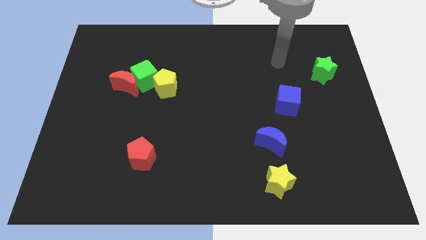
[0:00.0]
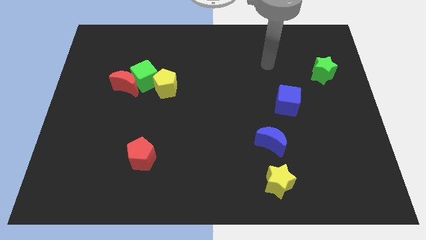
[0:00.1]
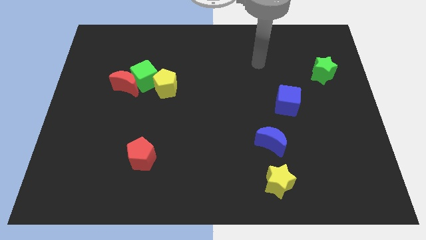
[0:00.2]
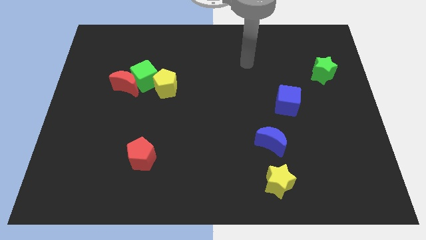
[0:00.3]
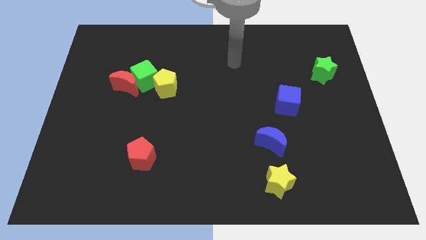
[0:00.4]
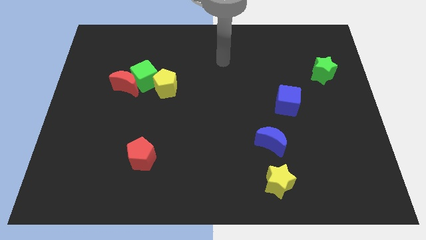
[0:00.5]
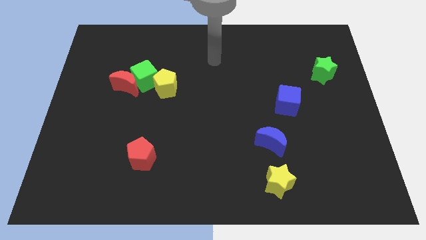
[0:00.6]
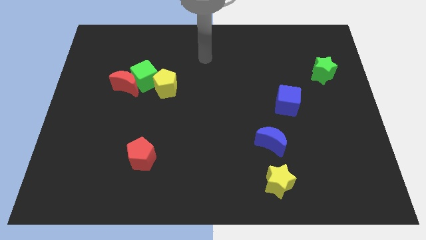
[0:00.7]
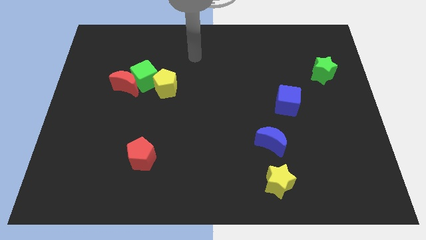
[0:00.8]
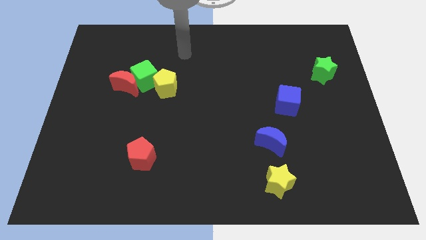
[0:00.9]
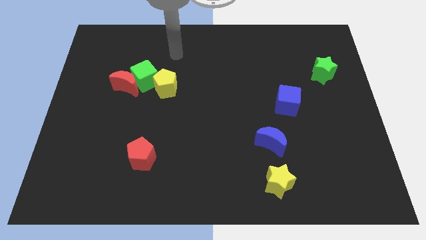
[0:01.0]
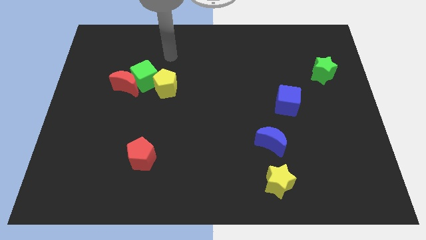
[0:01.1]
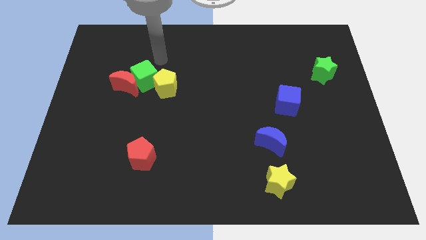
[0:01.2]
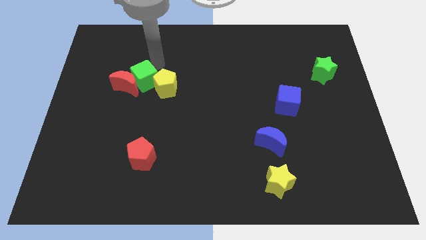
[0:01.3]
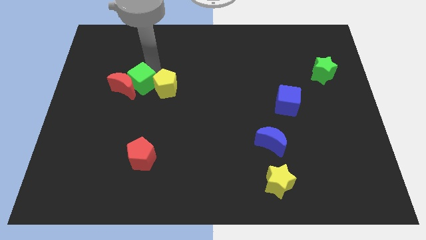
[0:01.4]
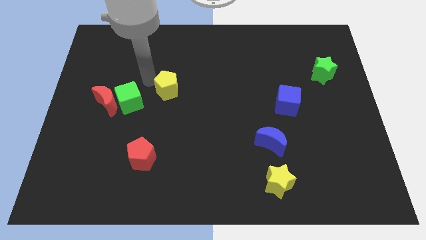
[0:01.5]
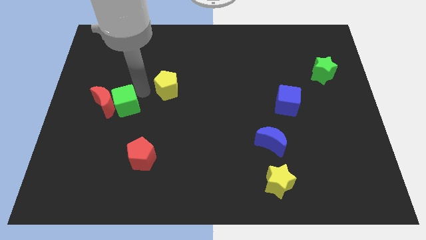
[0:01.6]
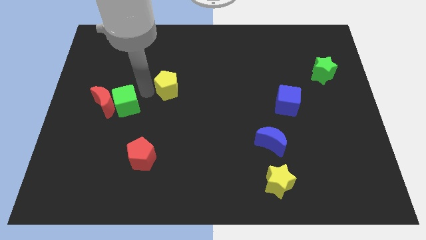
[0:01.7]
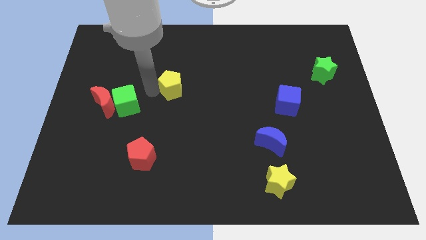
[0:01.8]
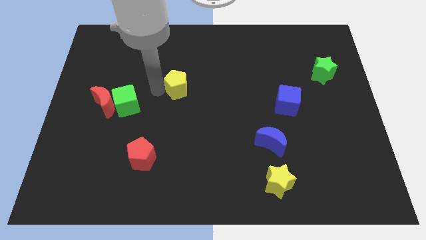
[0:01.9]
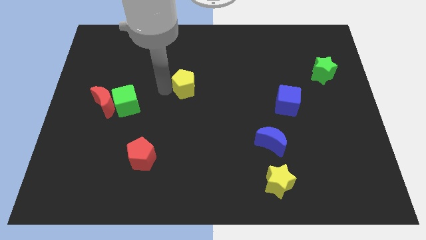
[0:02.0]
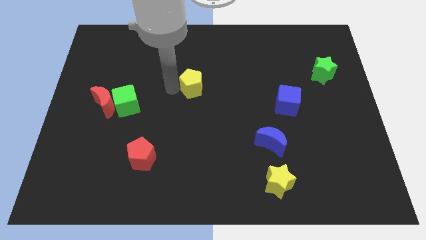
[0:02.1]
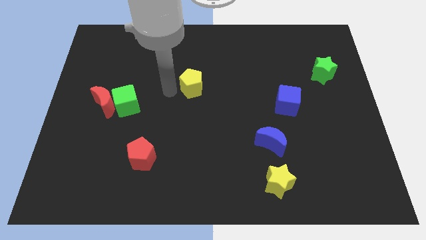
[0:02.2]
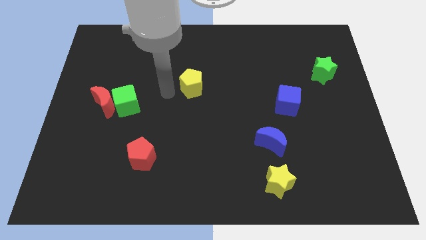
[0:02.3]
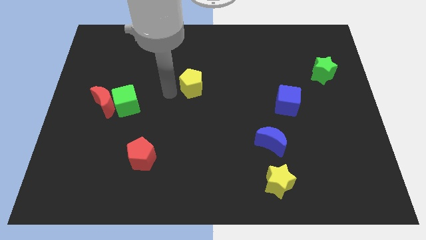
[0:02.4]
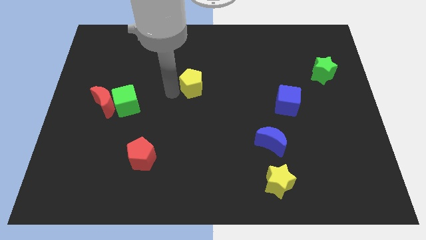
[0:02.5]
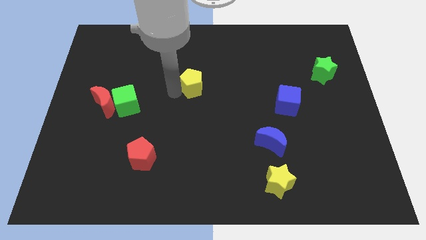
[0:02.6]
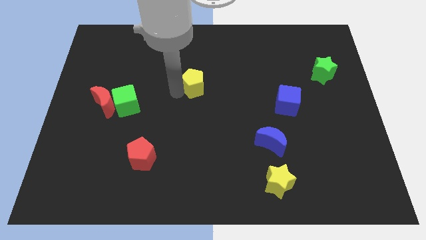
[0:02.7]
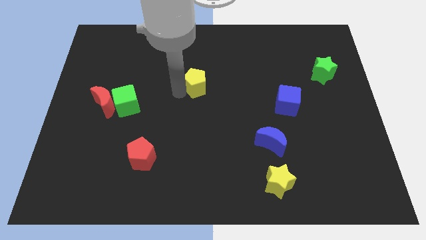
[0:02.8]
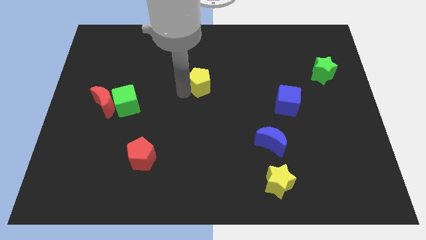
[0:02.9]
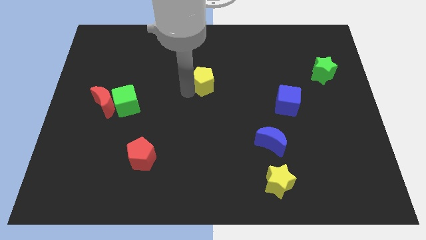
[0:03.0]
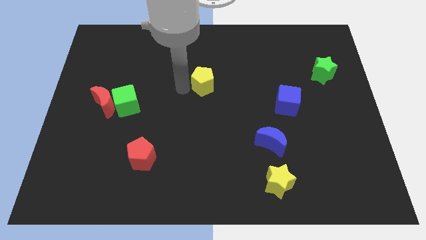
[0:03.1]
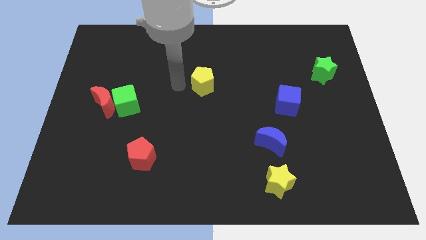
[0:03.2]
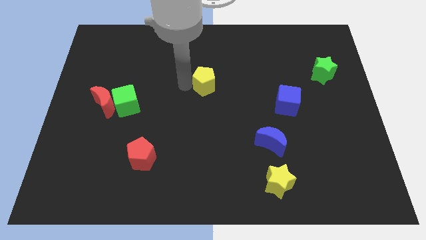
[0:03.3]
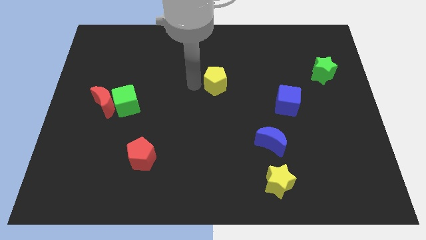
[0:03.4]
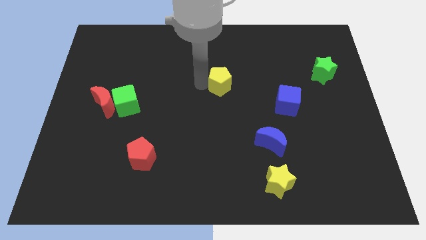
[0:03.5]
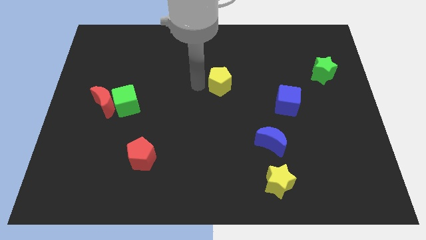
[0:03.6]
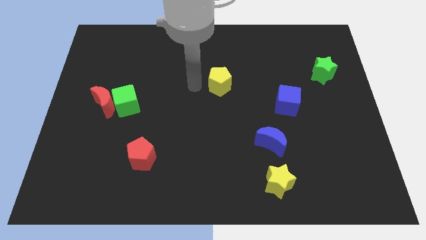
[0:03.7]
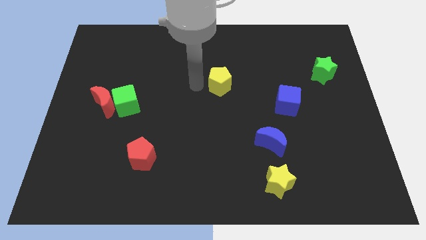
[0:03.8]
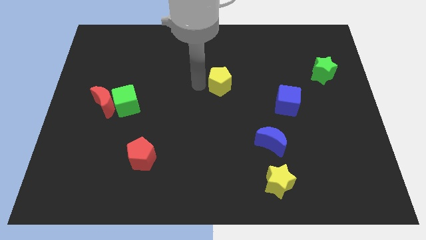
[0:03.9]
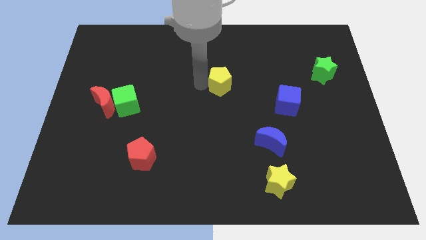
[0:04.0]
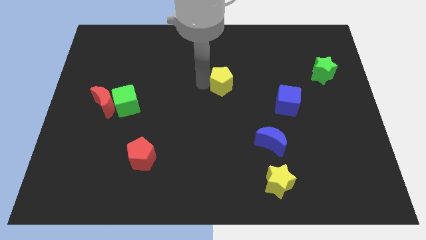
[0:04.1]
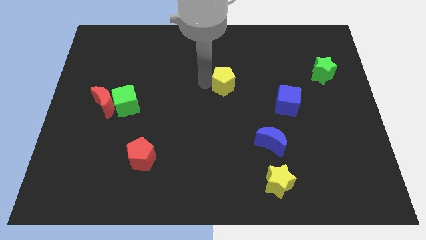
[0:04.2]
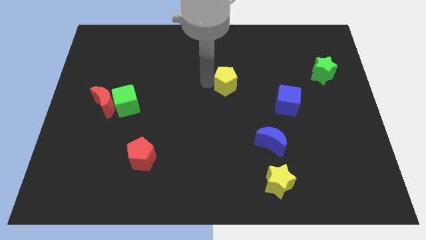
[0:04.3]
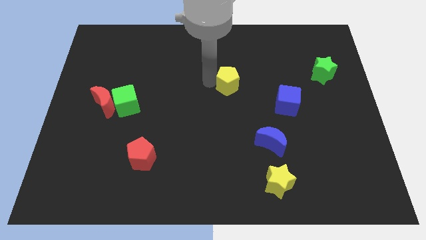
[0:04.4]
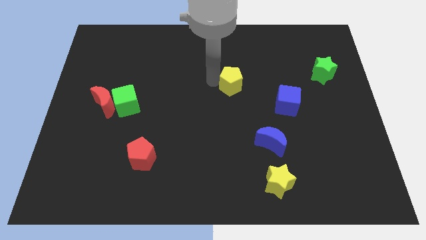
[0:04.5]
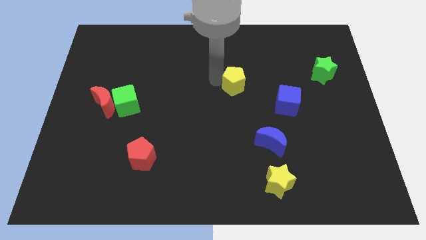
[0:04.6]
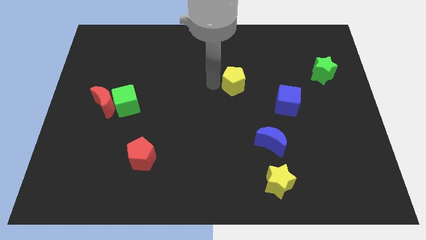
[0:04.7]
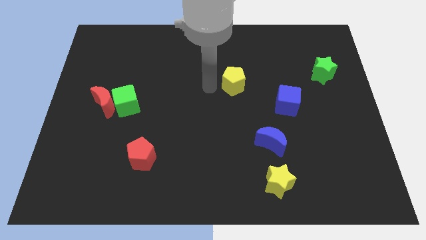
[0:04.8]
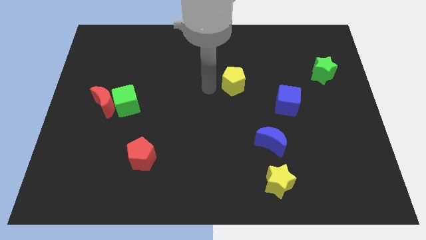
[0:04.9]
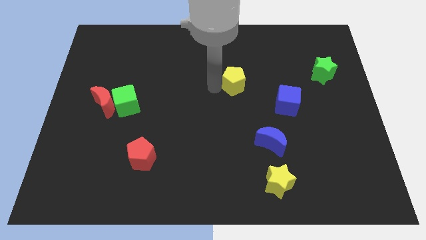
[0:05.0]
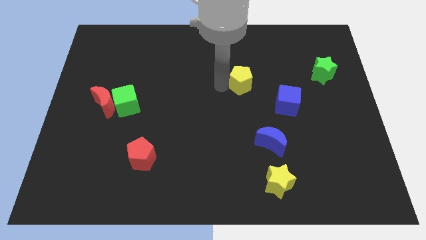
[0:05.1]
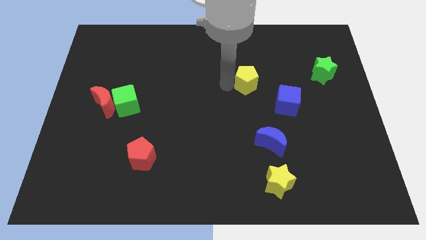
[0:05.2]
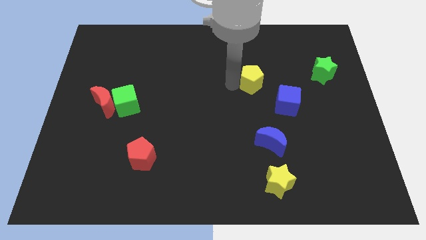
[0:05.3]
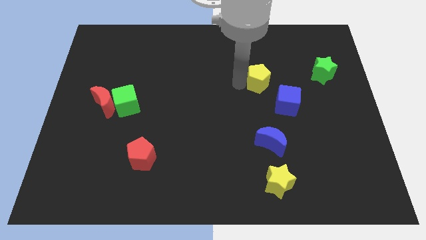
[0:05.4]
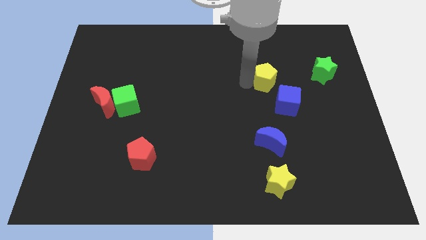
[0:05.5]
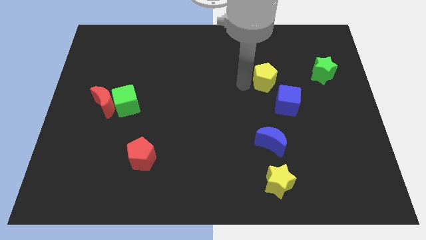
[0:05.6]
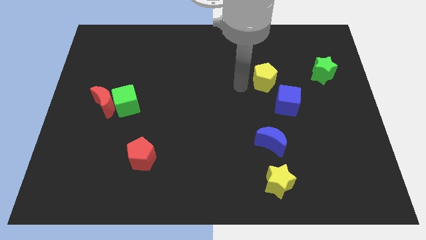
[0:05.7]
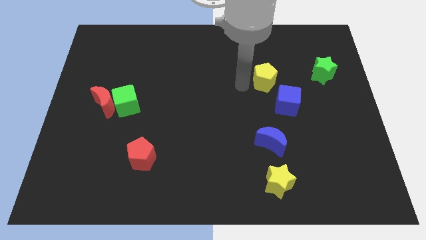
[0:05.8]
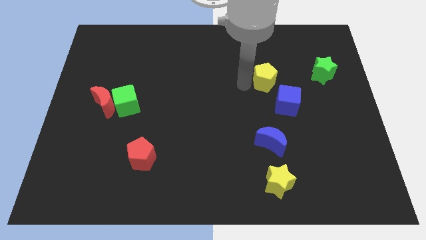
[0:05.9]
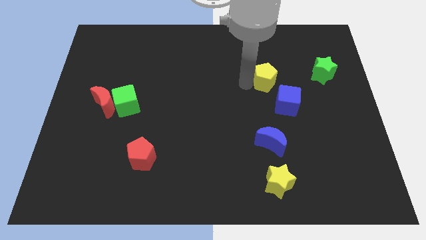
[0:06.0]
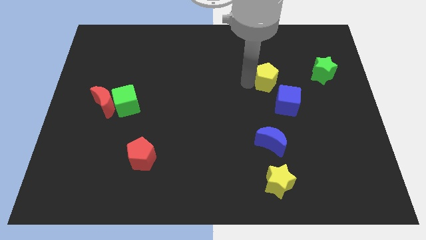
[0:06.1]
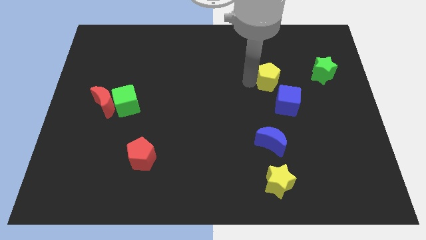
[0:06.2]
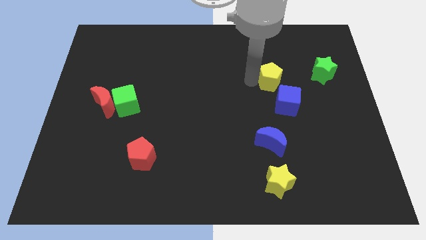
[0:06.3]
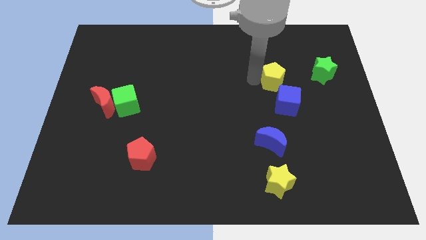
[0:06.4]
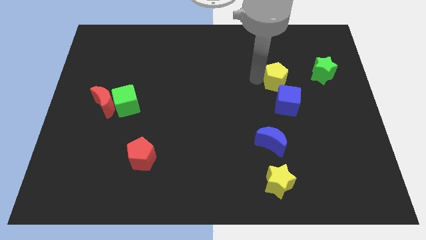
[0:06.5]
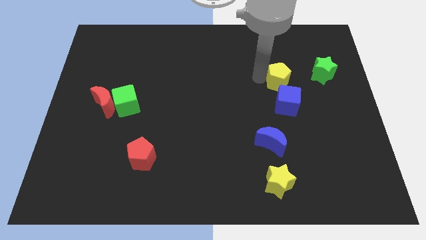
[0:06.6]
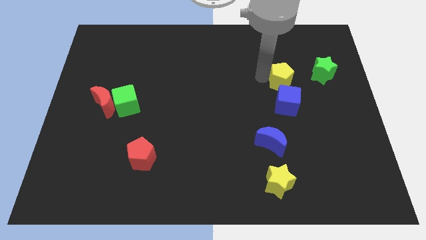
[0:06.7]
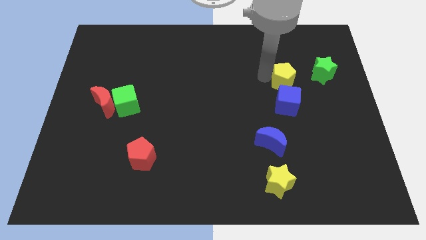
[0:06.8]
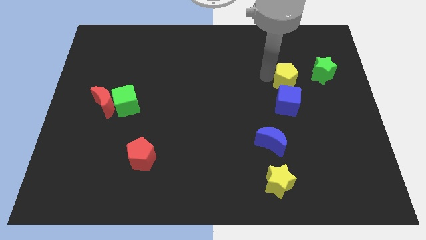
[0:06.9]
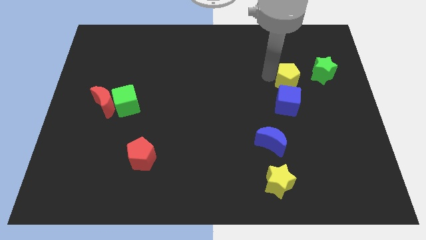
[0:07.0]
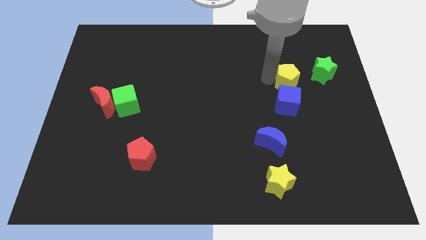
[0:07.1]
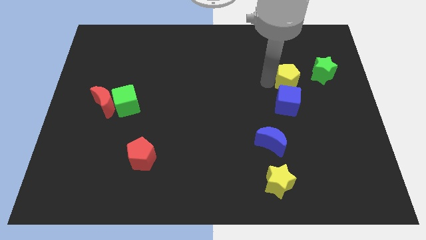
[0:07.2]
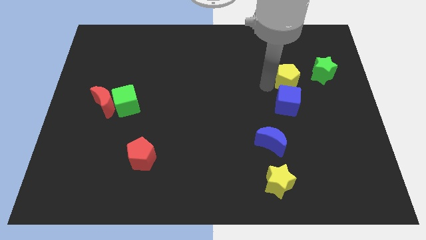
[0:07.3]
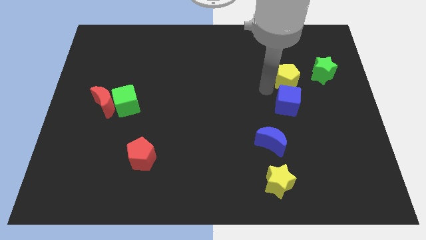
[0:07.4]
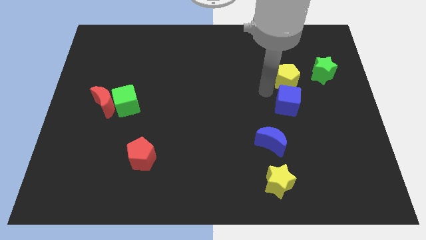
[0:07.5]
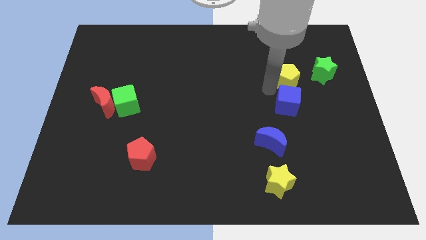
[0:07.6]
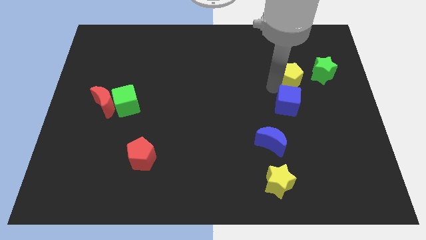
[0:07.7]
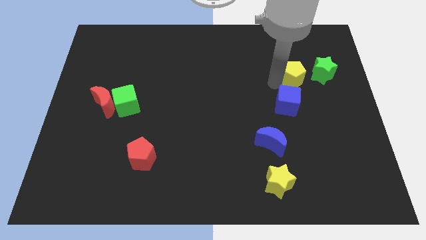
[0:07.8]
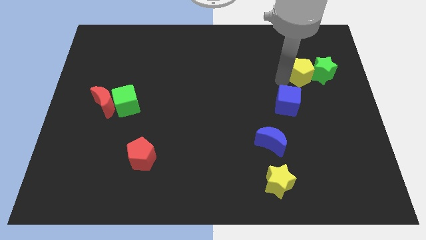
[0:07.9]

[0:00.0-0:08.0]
put the yellow pentagon to the green star
